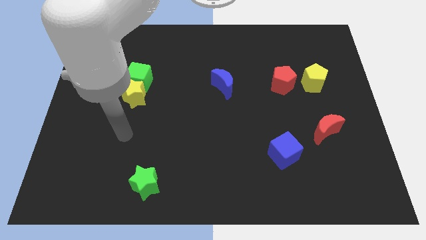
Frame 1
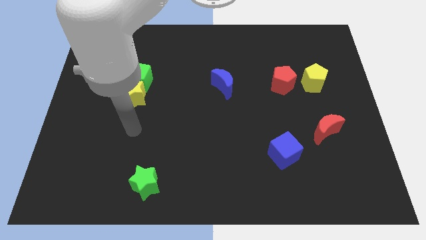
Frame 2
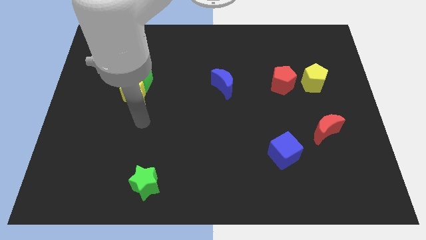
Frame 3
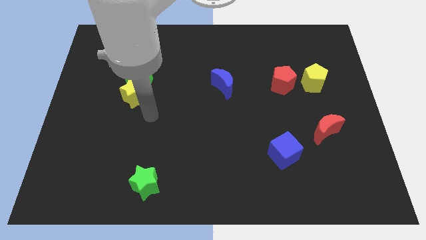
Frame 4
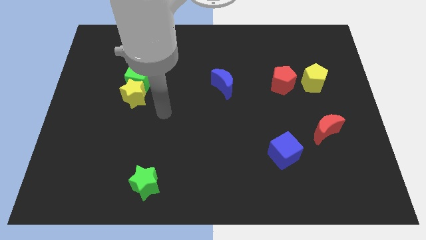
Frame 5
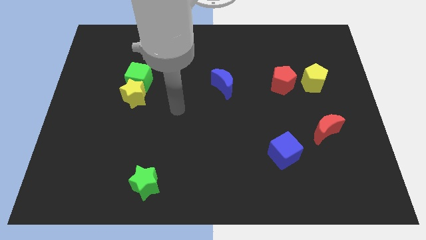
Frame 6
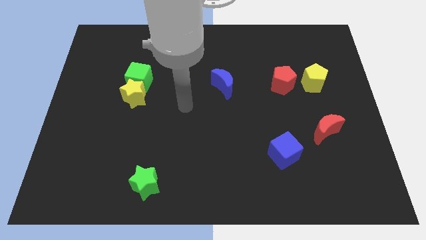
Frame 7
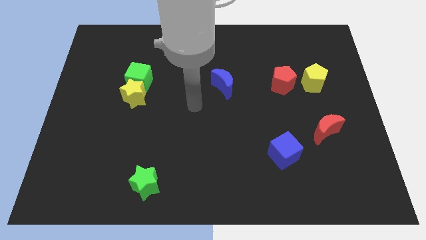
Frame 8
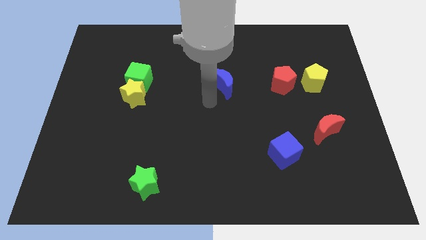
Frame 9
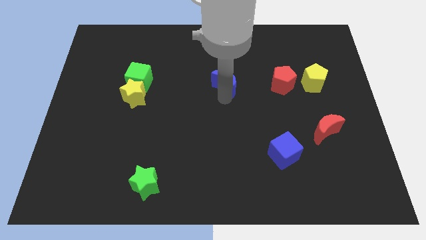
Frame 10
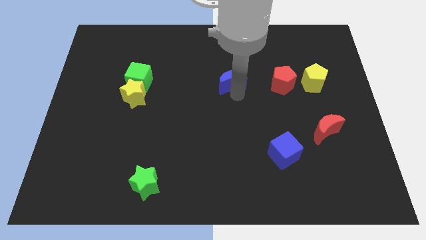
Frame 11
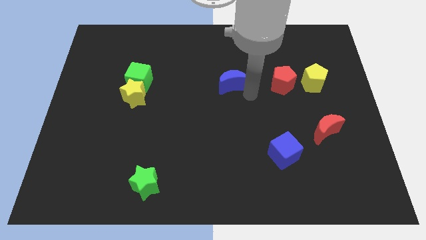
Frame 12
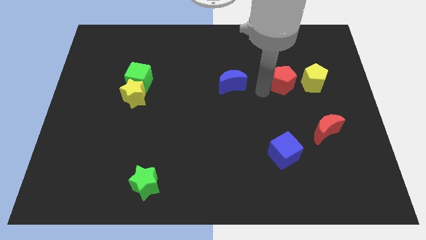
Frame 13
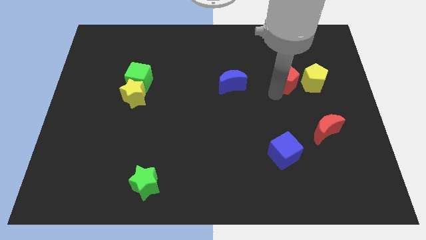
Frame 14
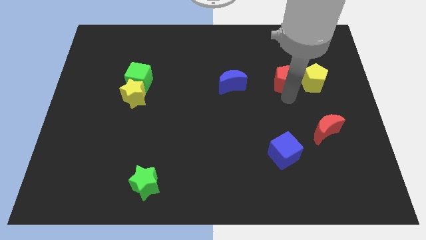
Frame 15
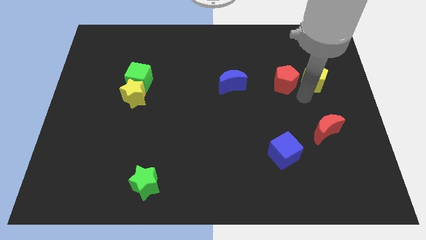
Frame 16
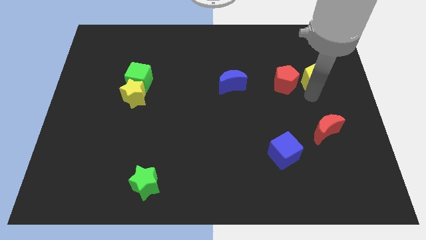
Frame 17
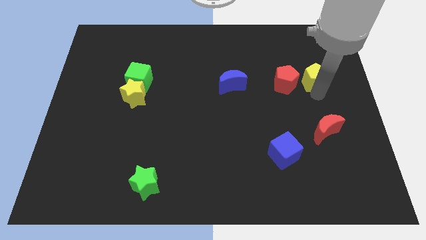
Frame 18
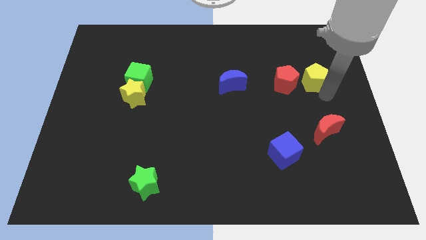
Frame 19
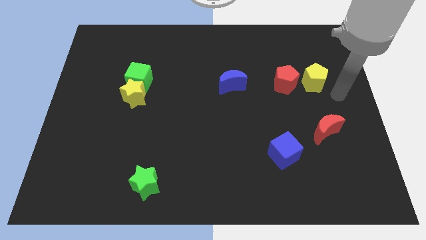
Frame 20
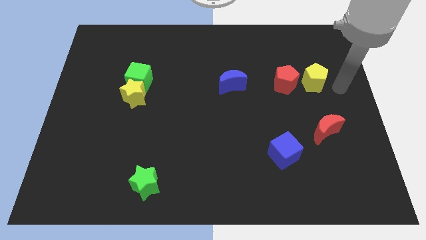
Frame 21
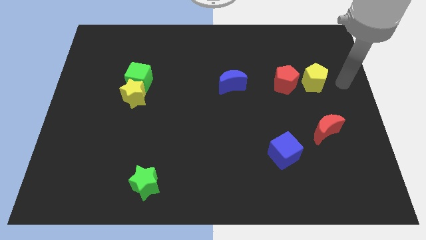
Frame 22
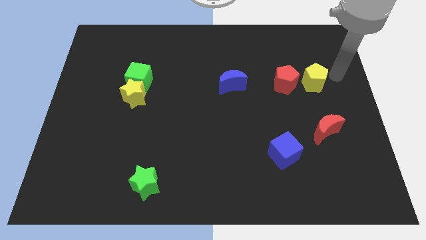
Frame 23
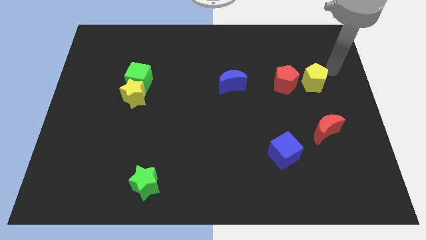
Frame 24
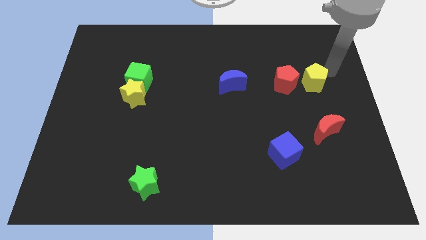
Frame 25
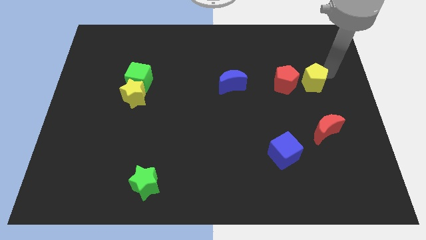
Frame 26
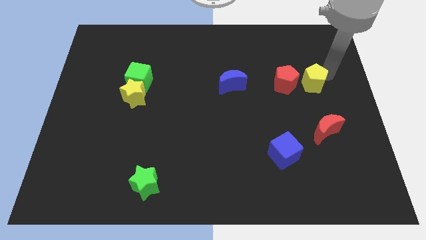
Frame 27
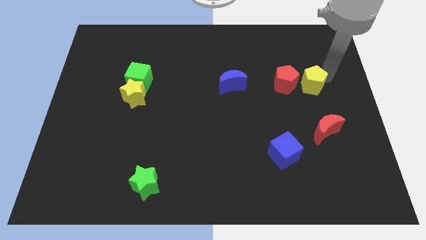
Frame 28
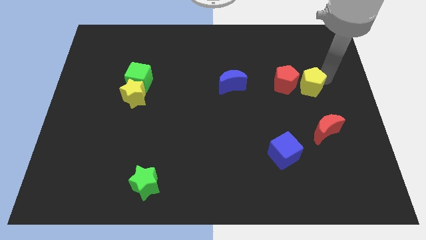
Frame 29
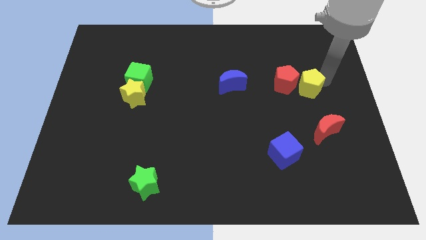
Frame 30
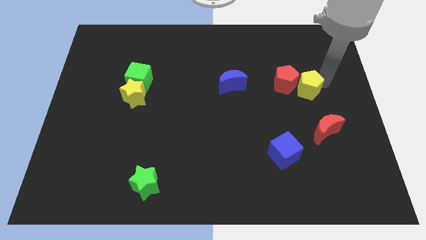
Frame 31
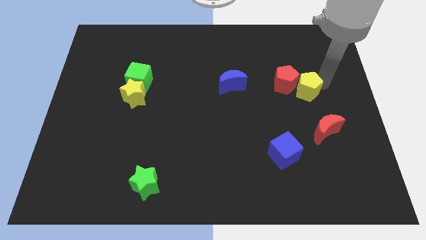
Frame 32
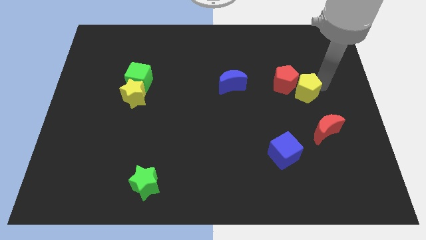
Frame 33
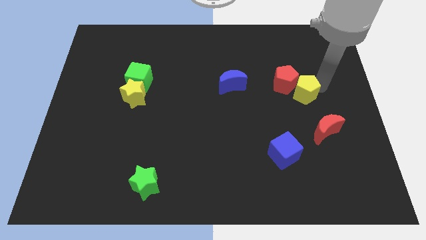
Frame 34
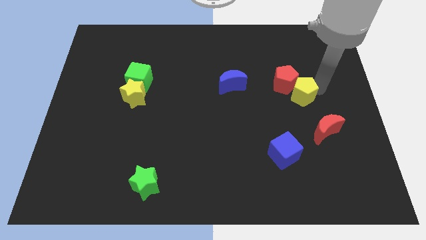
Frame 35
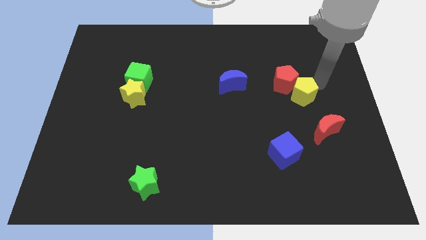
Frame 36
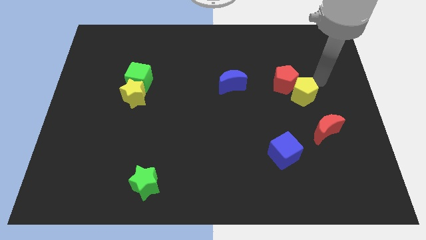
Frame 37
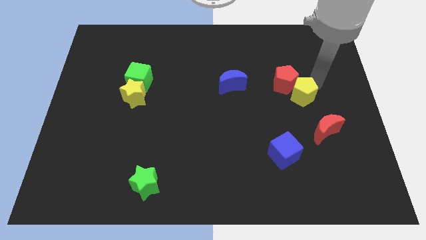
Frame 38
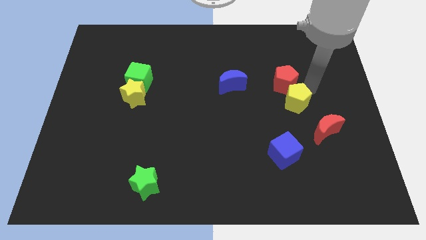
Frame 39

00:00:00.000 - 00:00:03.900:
slightly push the yellow pentagon downwards and left diagonally

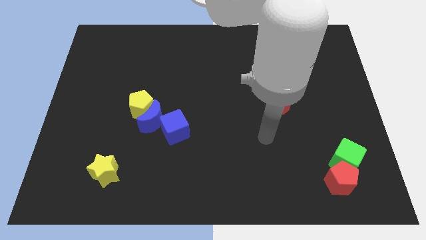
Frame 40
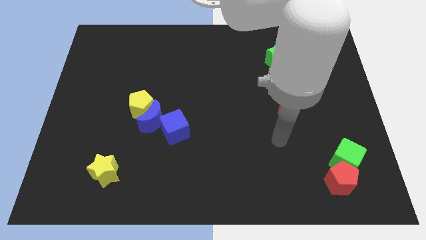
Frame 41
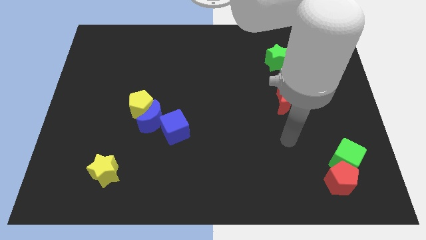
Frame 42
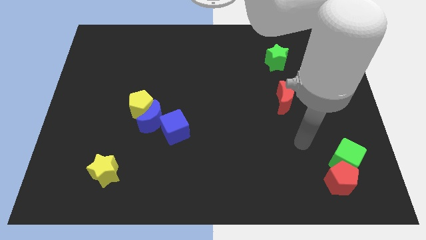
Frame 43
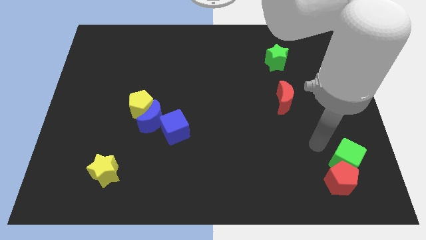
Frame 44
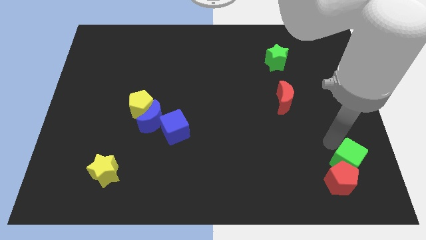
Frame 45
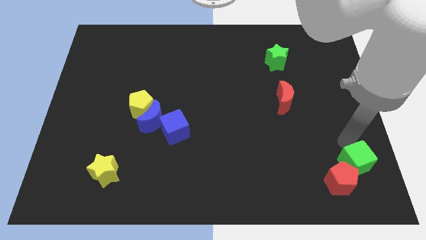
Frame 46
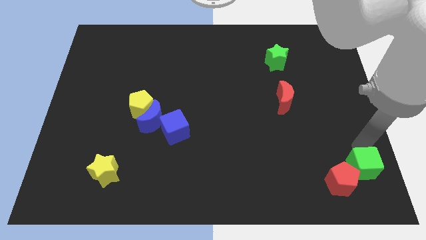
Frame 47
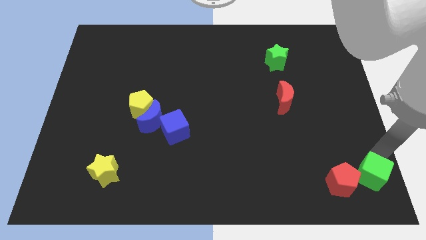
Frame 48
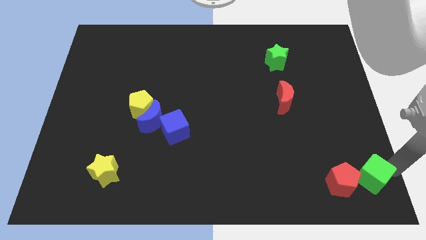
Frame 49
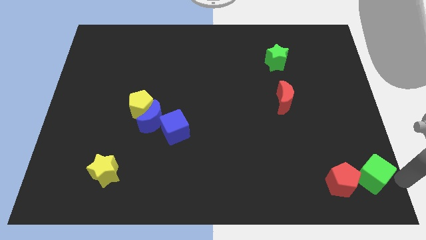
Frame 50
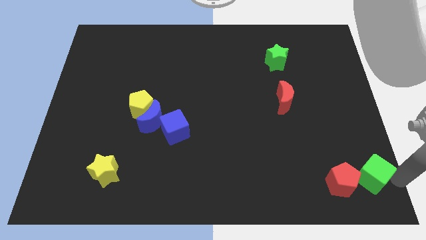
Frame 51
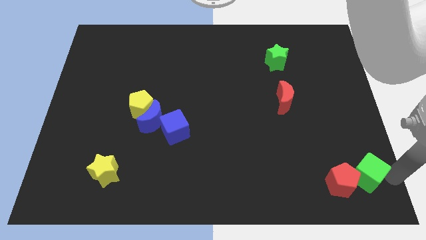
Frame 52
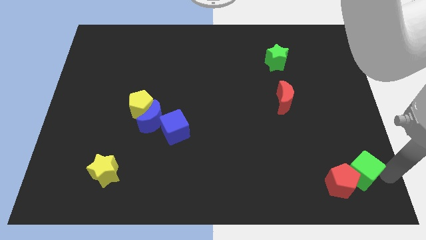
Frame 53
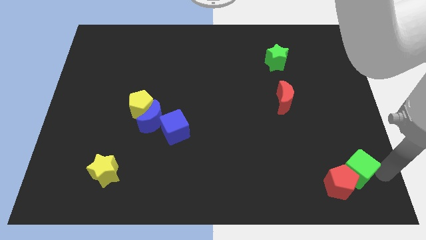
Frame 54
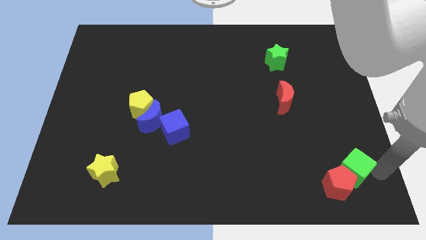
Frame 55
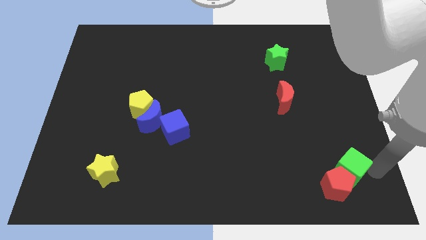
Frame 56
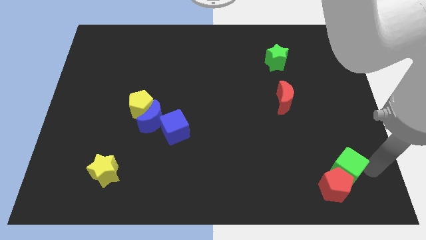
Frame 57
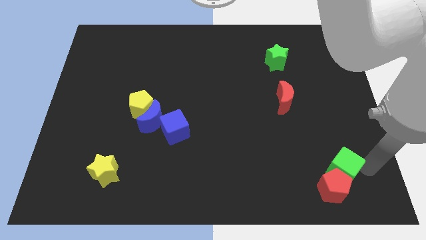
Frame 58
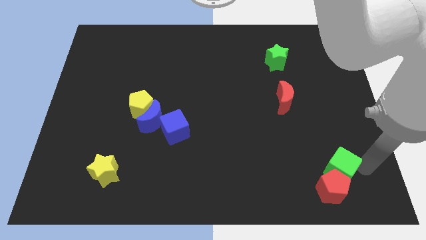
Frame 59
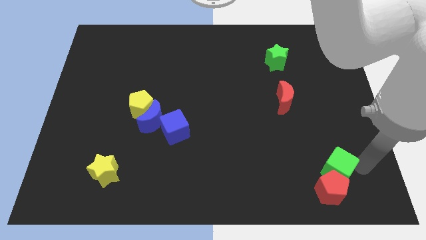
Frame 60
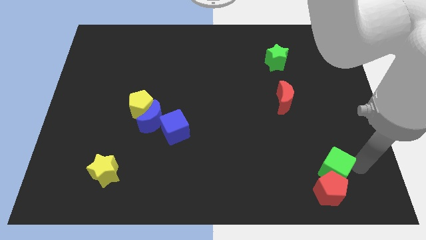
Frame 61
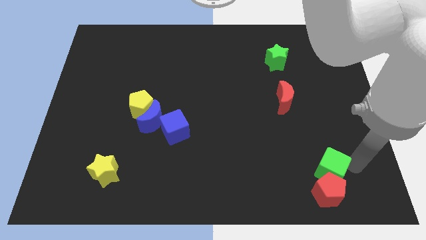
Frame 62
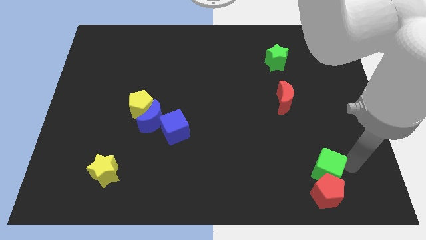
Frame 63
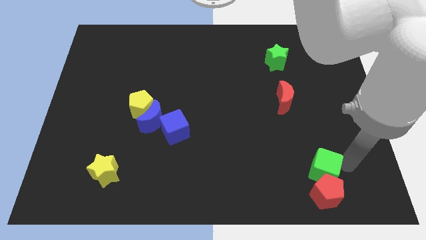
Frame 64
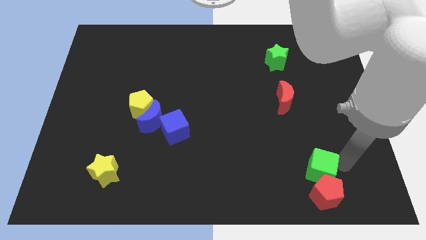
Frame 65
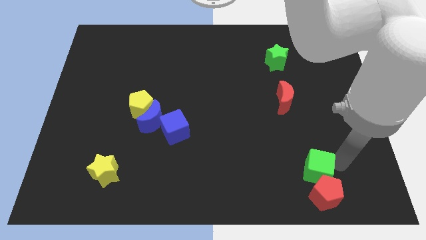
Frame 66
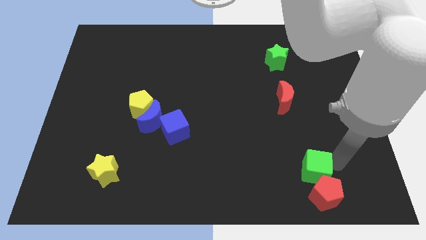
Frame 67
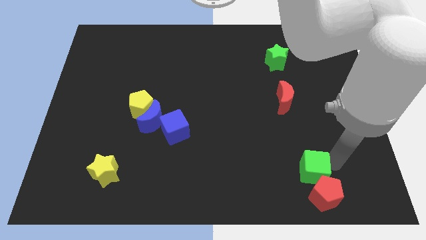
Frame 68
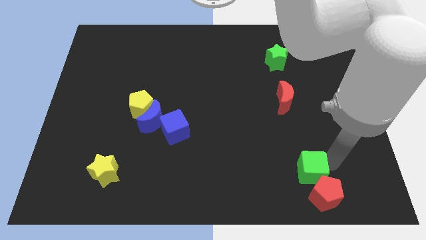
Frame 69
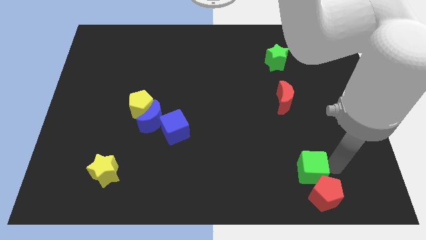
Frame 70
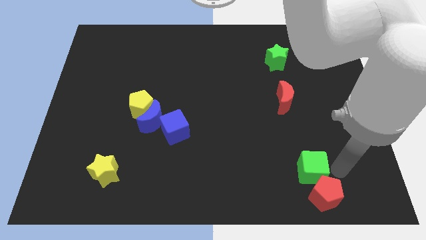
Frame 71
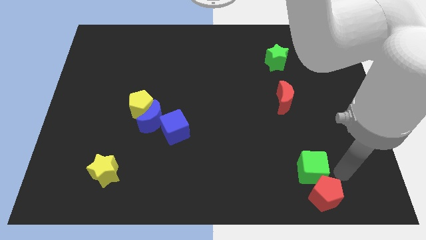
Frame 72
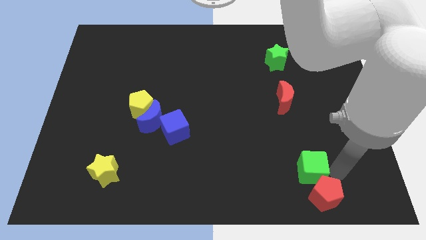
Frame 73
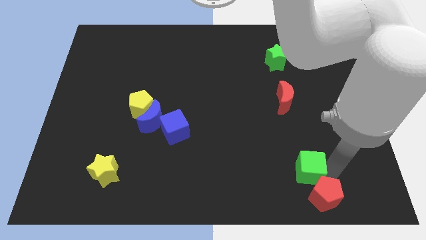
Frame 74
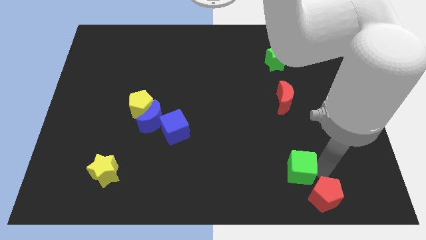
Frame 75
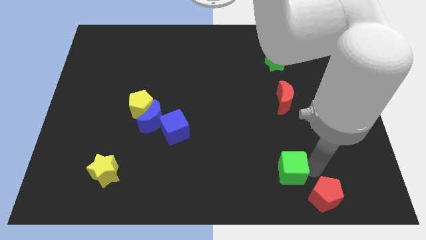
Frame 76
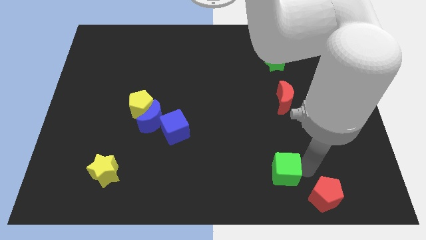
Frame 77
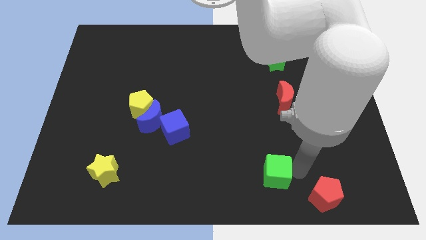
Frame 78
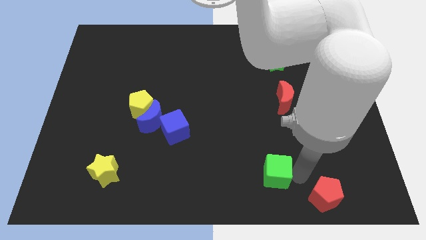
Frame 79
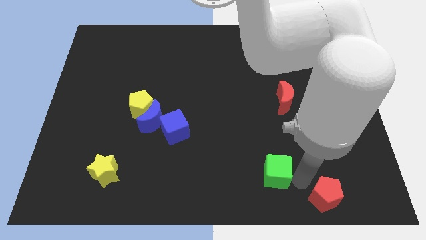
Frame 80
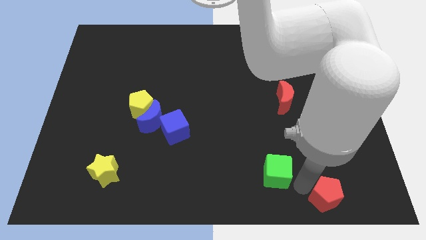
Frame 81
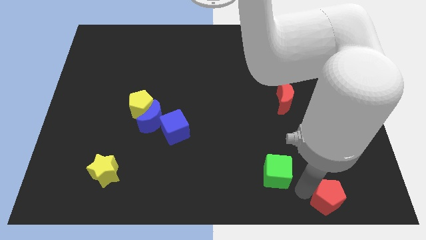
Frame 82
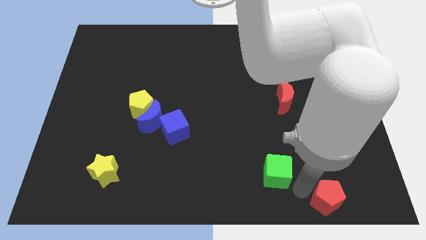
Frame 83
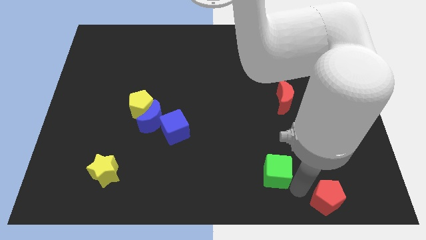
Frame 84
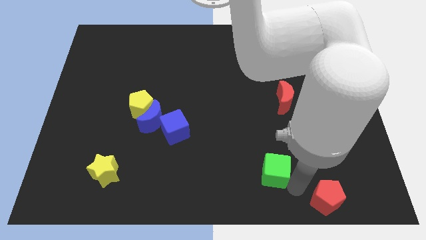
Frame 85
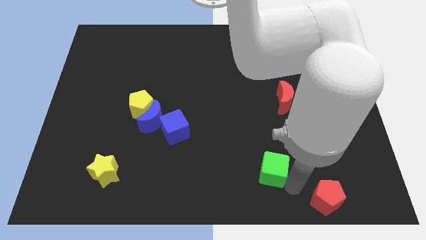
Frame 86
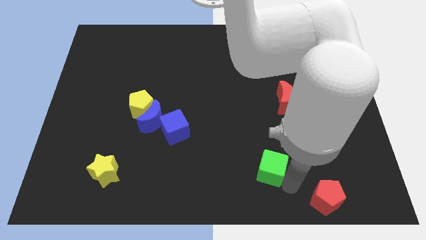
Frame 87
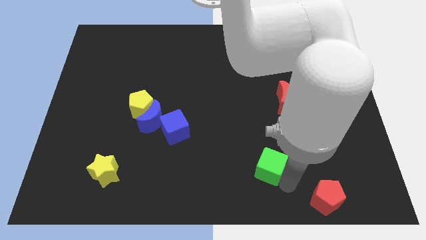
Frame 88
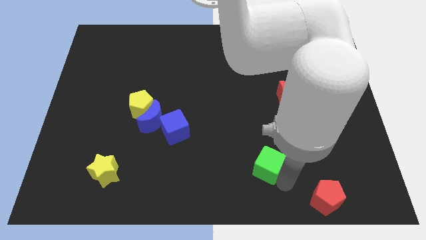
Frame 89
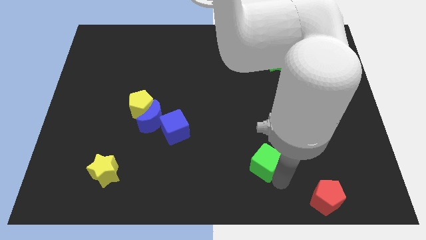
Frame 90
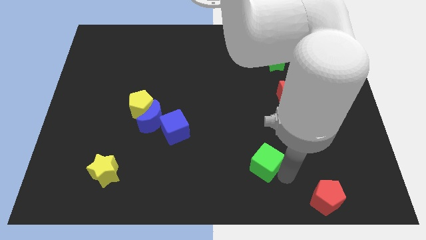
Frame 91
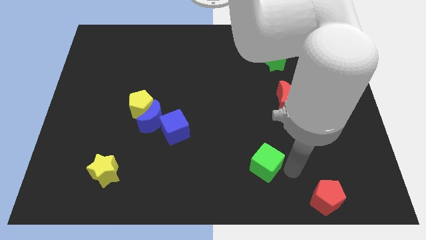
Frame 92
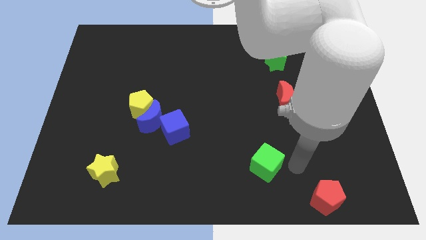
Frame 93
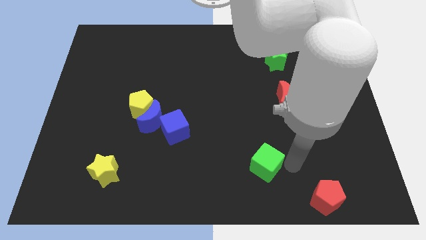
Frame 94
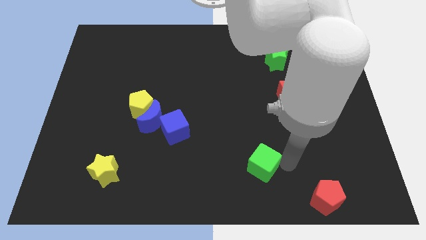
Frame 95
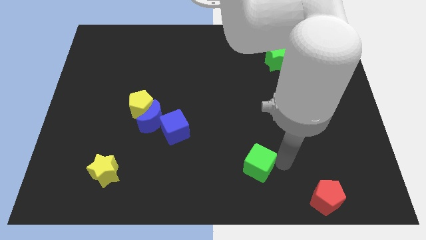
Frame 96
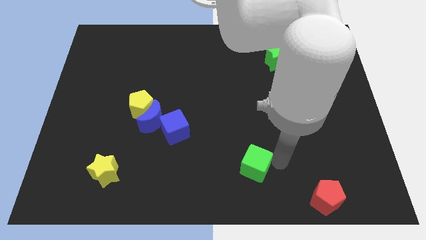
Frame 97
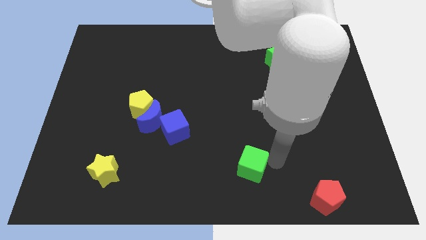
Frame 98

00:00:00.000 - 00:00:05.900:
slide the green cube to the left
